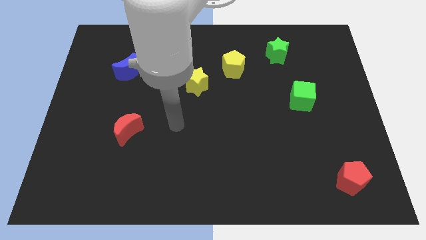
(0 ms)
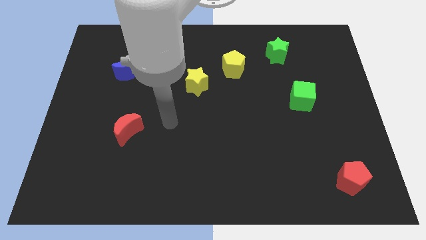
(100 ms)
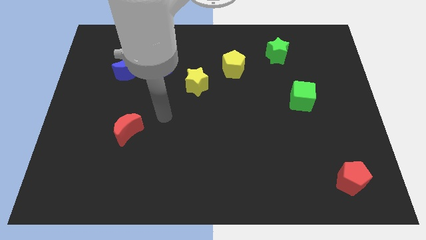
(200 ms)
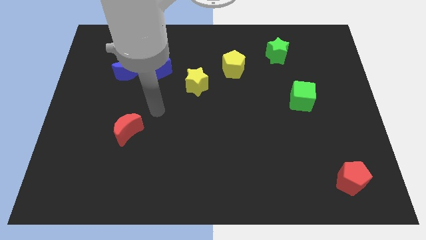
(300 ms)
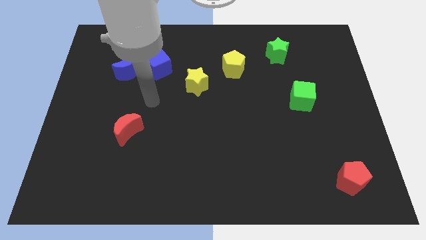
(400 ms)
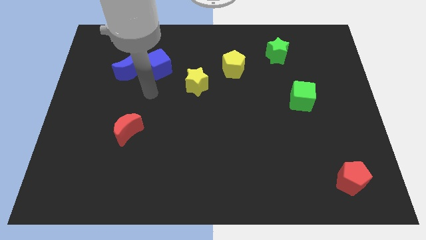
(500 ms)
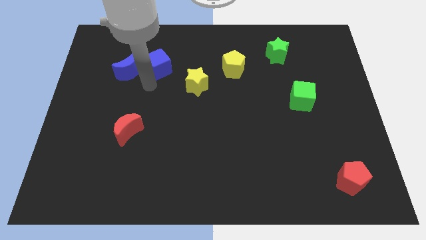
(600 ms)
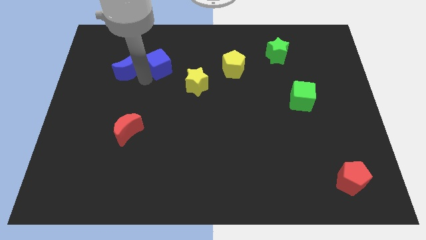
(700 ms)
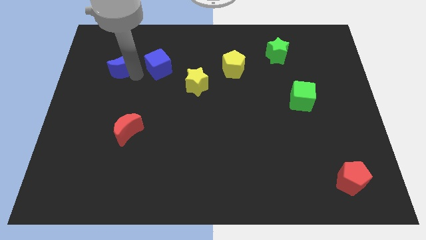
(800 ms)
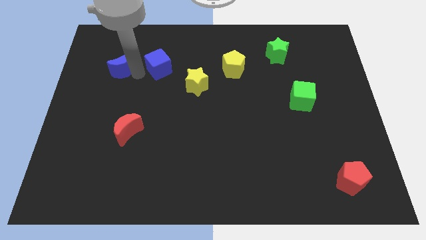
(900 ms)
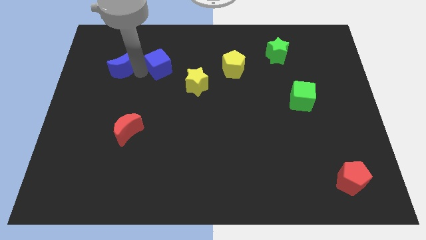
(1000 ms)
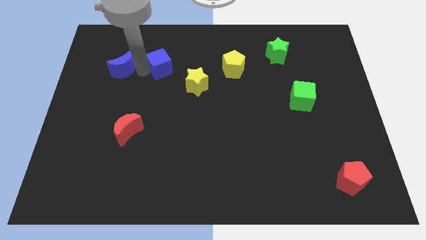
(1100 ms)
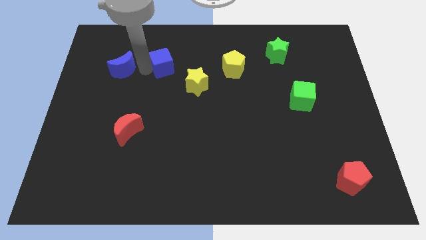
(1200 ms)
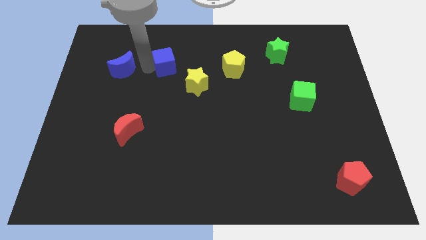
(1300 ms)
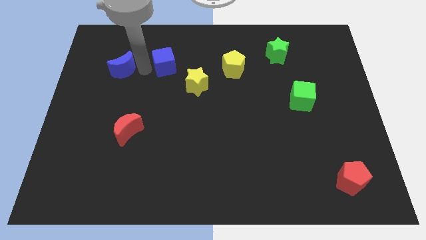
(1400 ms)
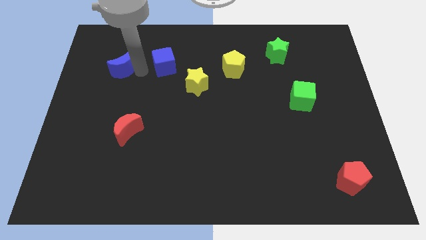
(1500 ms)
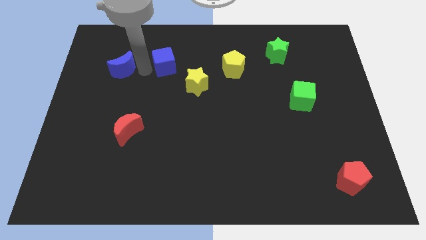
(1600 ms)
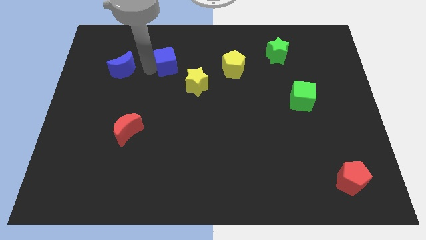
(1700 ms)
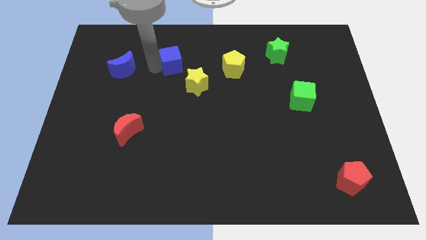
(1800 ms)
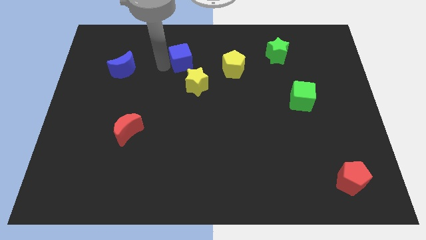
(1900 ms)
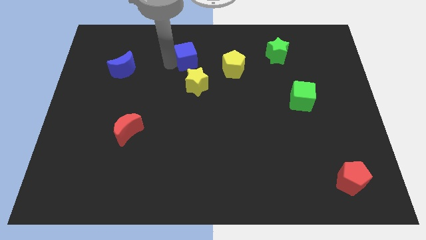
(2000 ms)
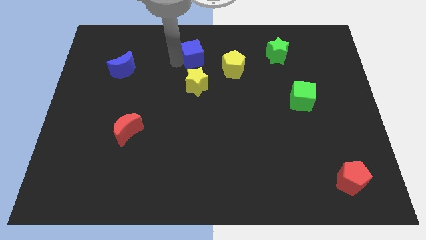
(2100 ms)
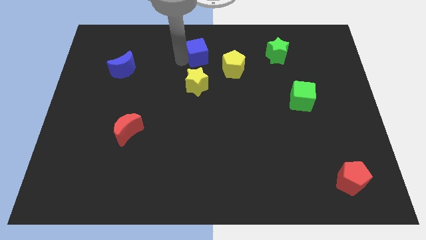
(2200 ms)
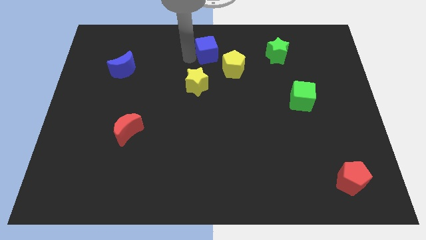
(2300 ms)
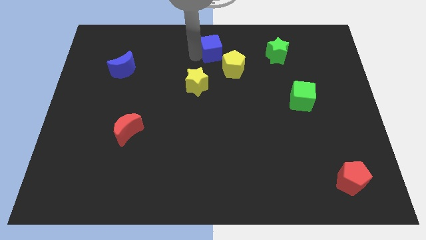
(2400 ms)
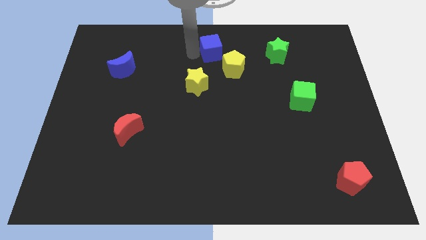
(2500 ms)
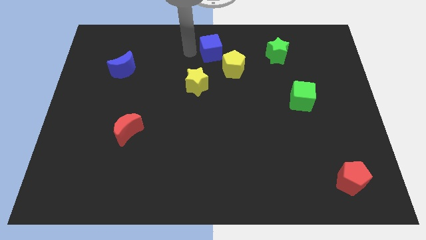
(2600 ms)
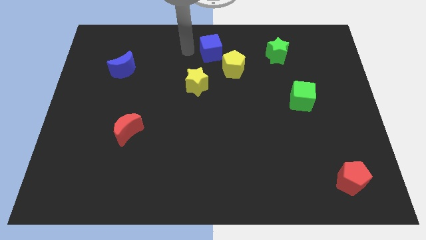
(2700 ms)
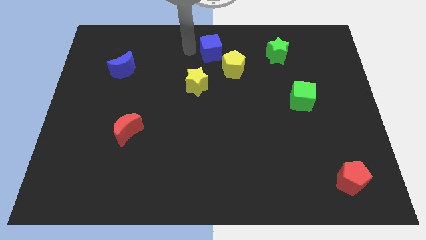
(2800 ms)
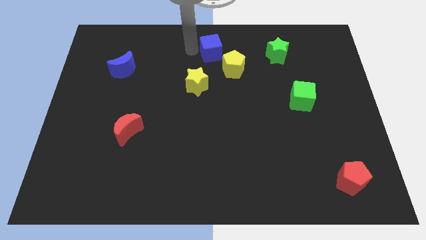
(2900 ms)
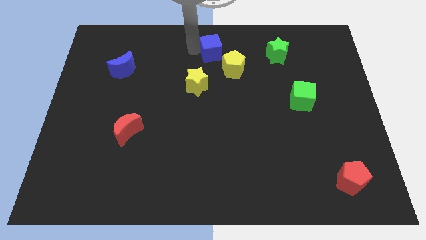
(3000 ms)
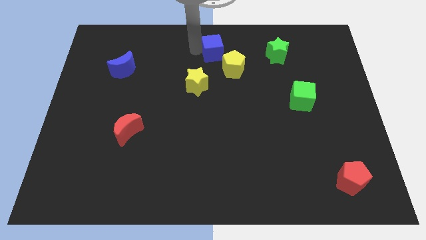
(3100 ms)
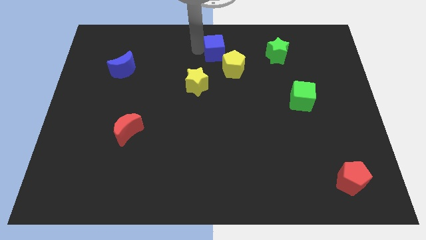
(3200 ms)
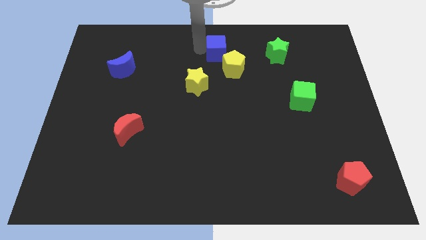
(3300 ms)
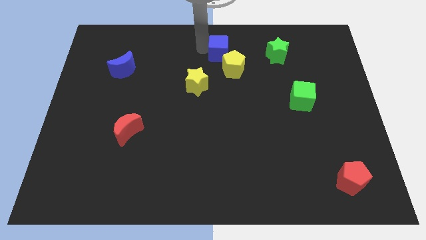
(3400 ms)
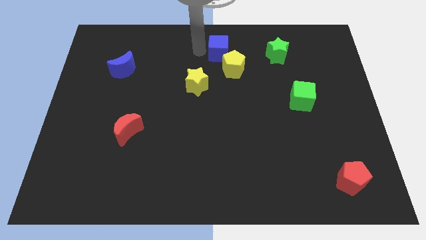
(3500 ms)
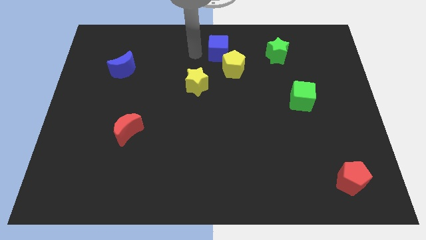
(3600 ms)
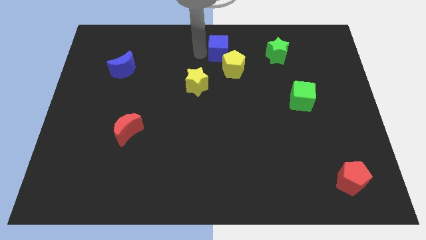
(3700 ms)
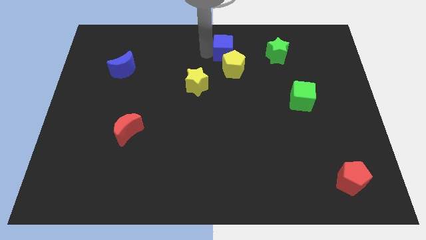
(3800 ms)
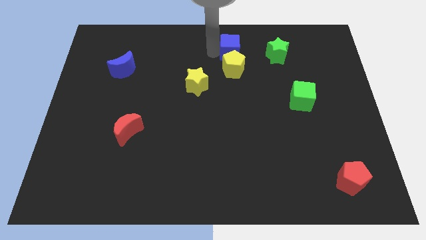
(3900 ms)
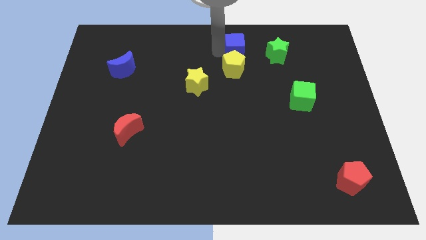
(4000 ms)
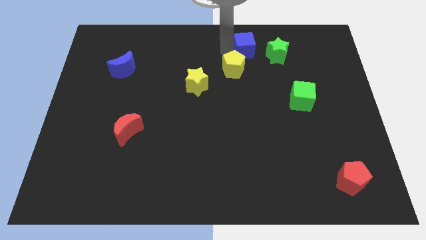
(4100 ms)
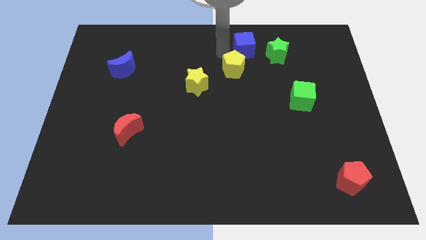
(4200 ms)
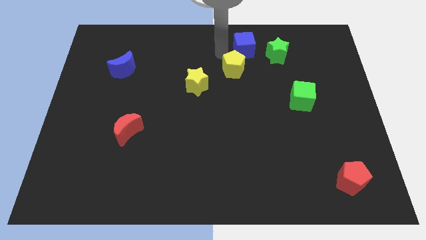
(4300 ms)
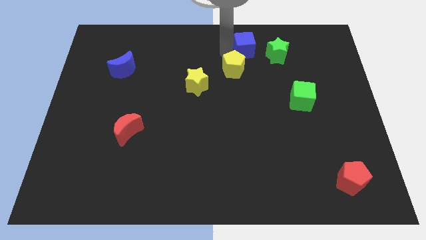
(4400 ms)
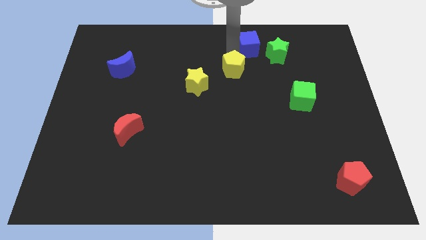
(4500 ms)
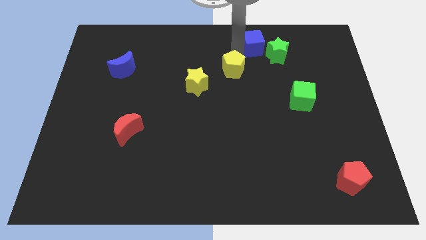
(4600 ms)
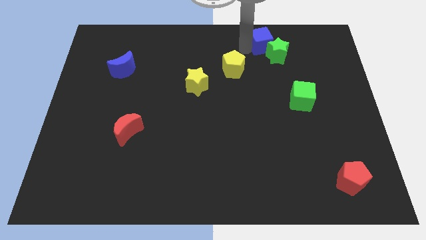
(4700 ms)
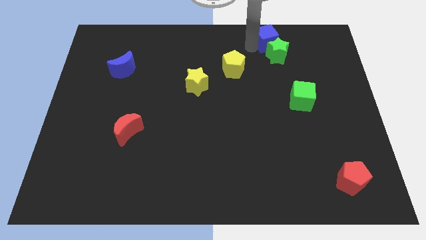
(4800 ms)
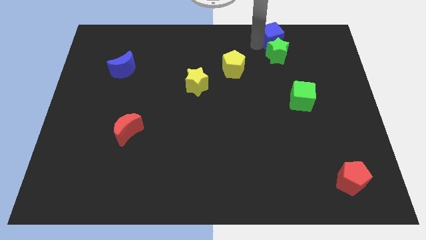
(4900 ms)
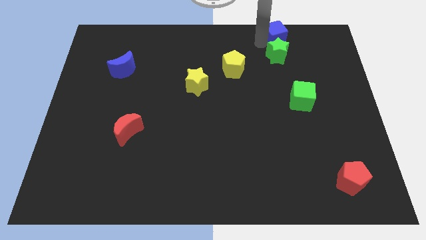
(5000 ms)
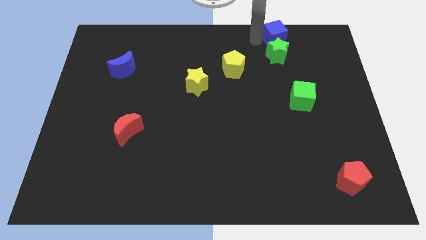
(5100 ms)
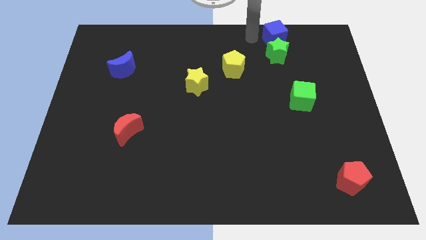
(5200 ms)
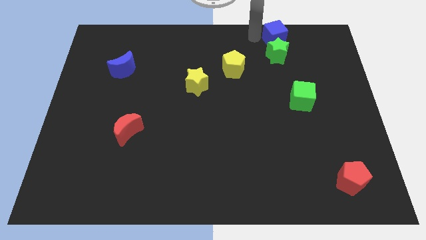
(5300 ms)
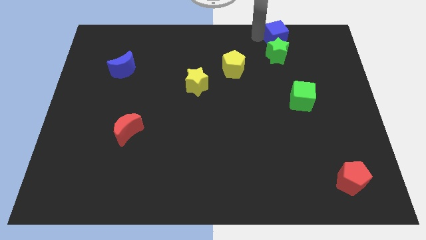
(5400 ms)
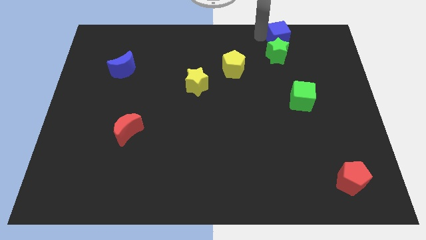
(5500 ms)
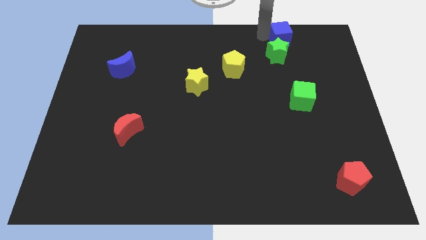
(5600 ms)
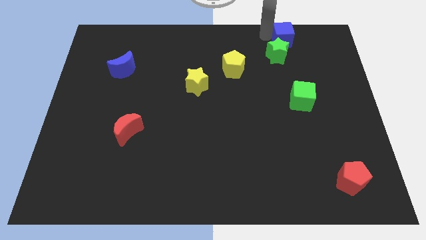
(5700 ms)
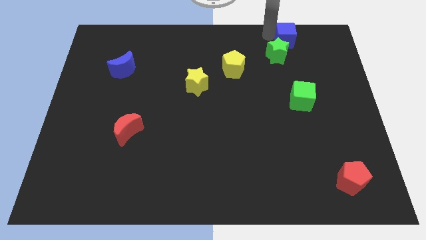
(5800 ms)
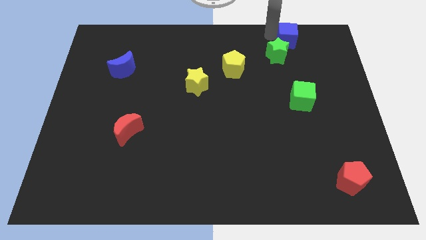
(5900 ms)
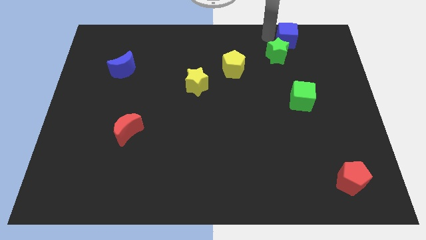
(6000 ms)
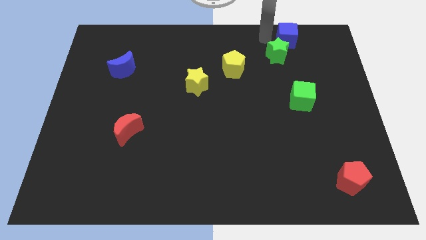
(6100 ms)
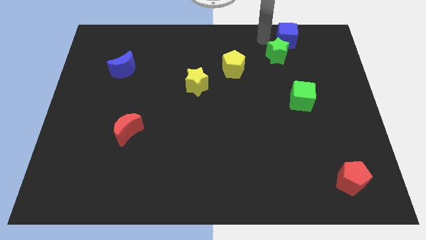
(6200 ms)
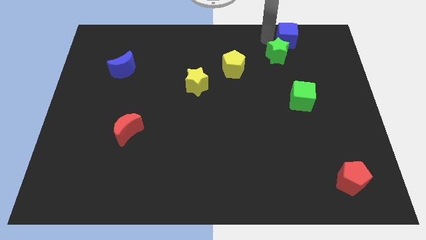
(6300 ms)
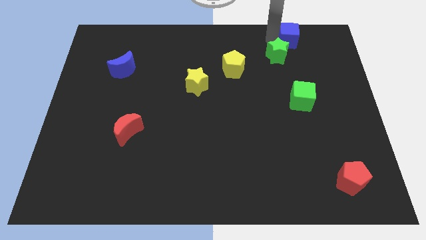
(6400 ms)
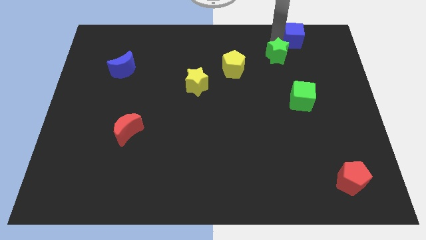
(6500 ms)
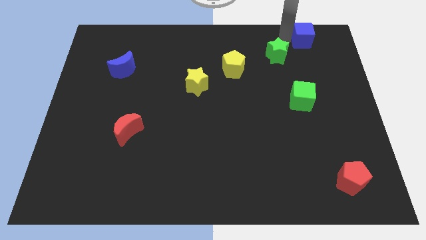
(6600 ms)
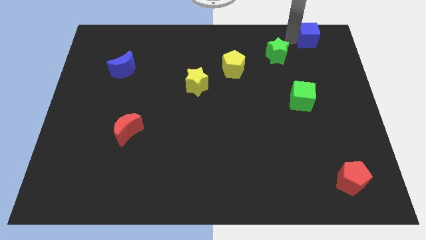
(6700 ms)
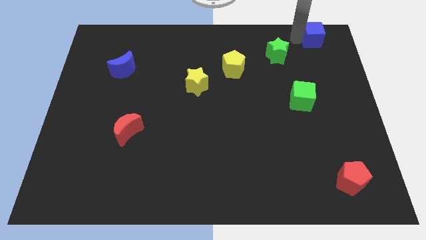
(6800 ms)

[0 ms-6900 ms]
put the blue cube to the top right

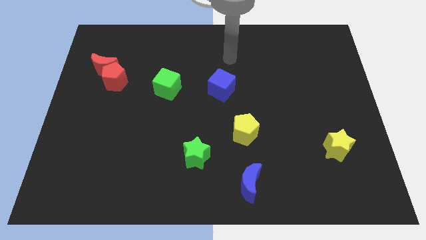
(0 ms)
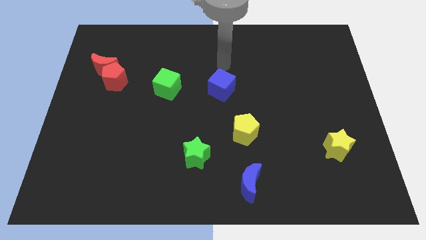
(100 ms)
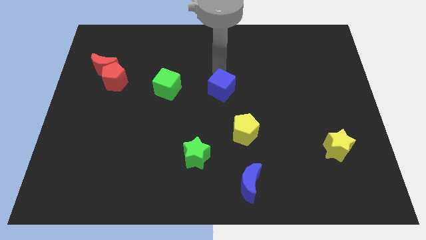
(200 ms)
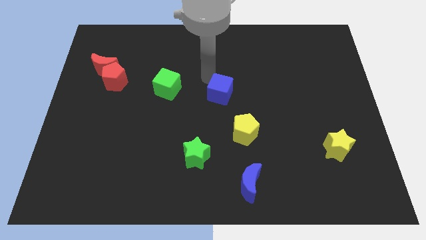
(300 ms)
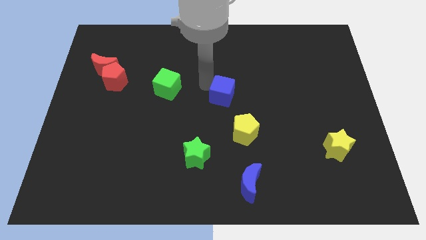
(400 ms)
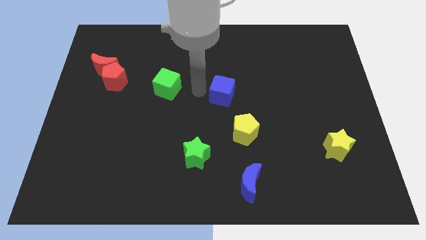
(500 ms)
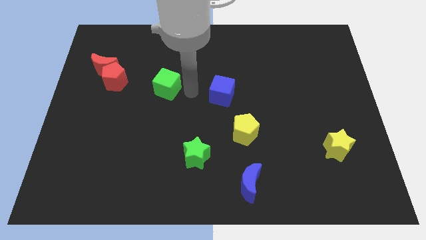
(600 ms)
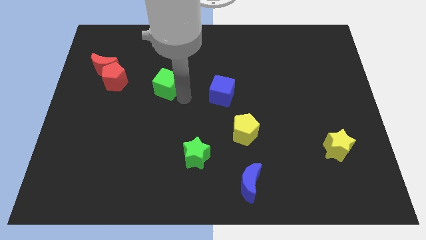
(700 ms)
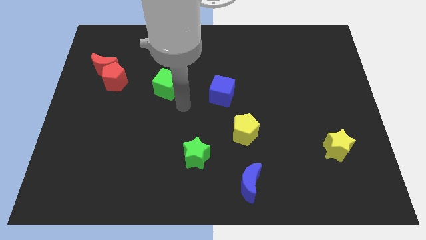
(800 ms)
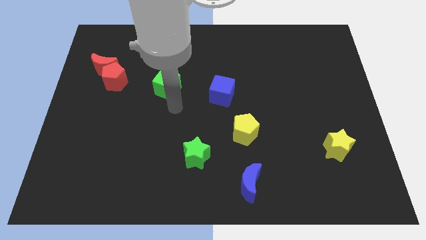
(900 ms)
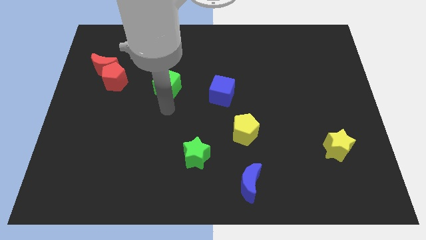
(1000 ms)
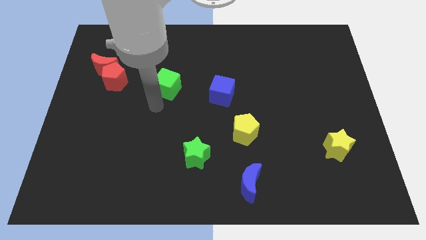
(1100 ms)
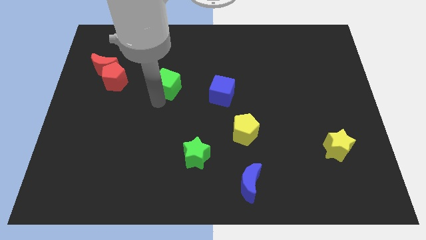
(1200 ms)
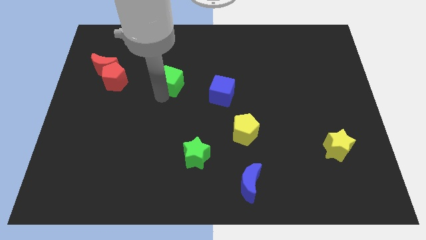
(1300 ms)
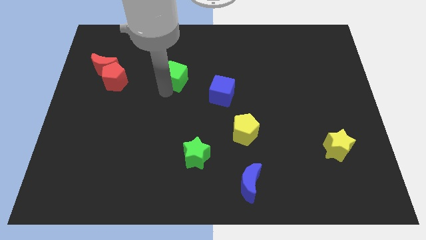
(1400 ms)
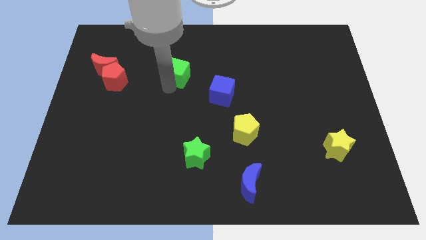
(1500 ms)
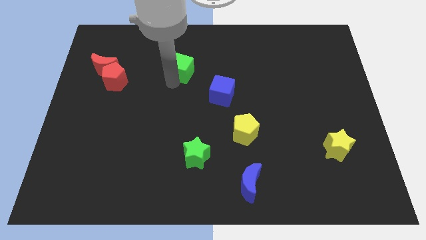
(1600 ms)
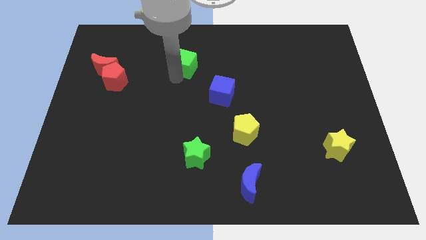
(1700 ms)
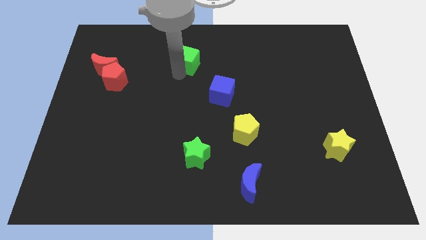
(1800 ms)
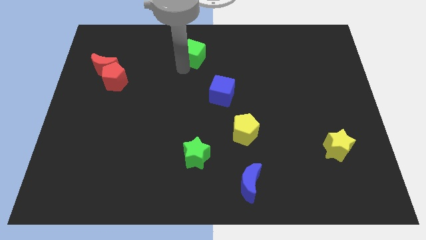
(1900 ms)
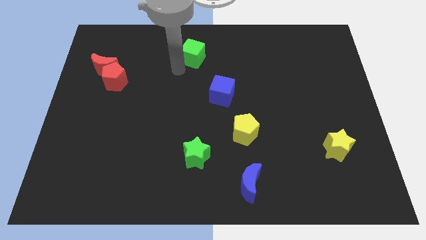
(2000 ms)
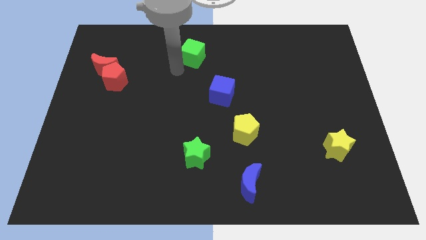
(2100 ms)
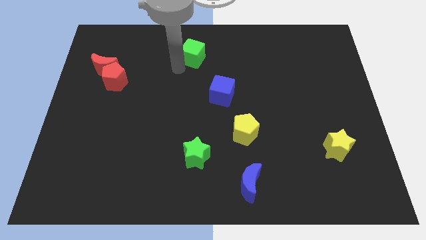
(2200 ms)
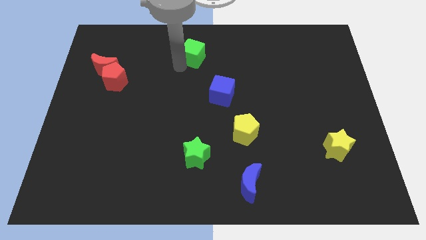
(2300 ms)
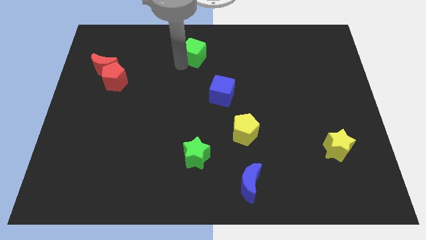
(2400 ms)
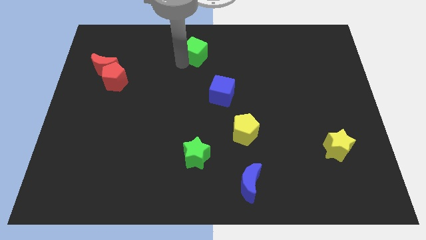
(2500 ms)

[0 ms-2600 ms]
move the green cube to the top side
